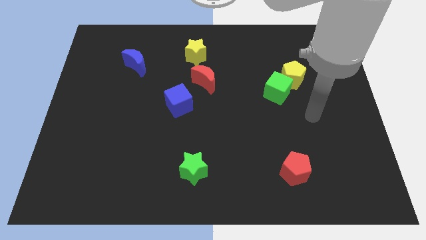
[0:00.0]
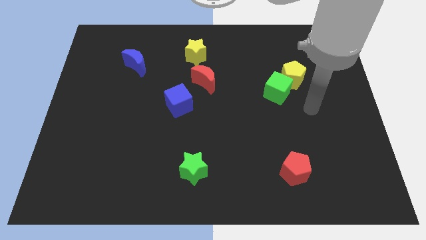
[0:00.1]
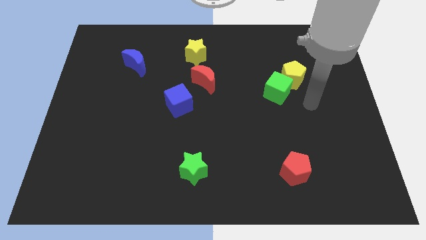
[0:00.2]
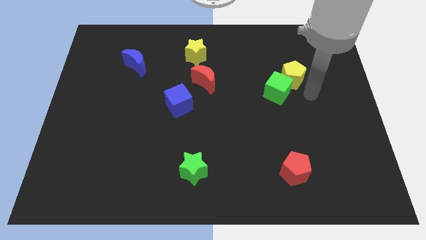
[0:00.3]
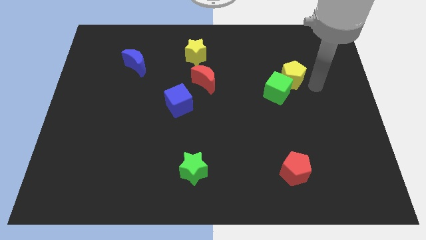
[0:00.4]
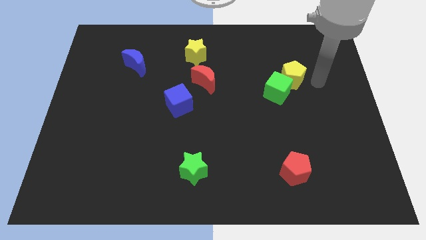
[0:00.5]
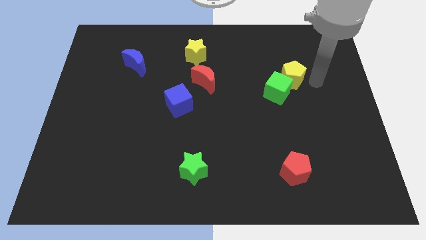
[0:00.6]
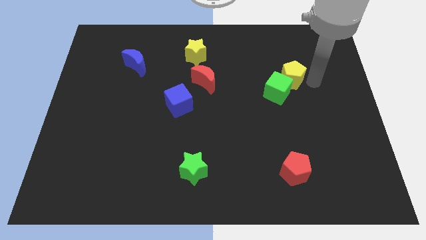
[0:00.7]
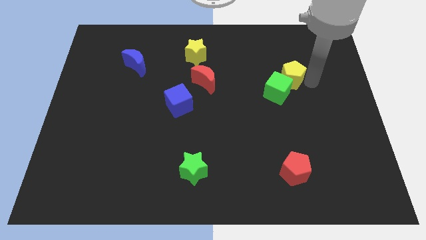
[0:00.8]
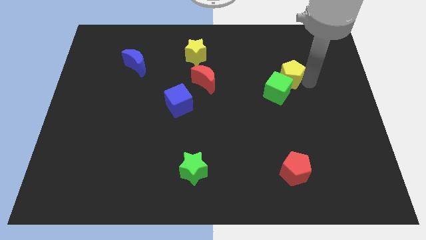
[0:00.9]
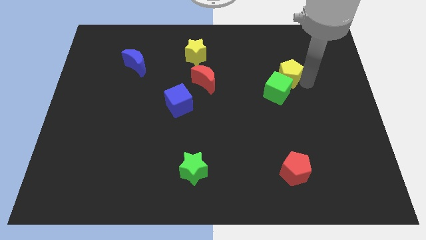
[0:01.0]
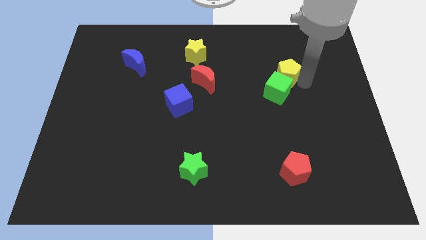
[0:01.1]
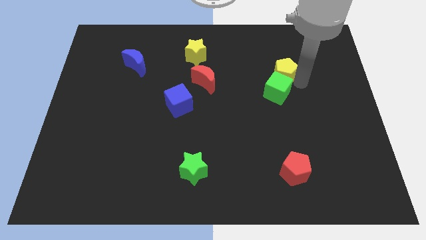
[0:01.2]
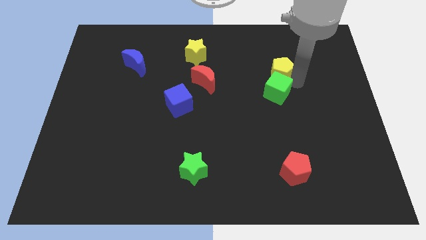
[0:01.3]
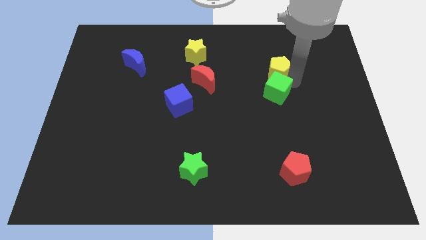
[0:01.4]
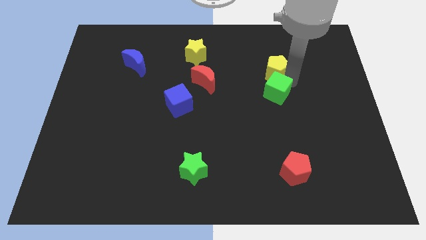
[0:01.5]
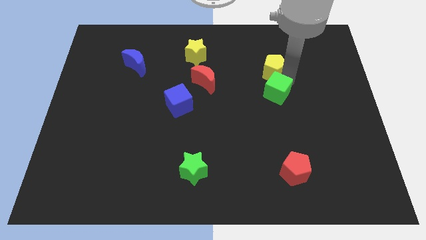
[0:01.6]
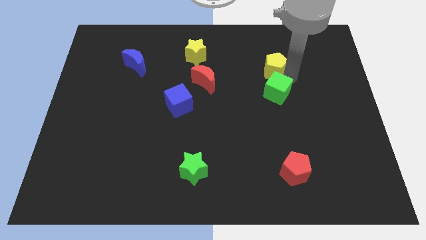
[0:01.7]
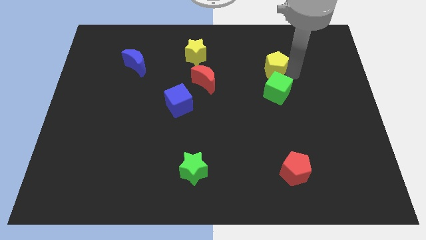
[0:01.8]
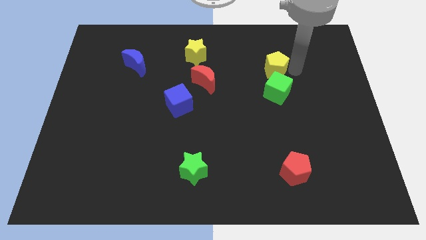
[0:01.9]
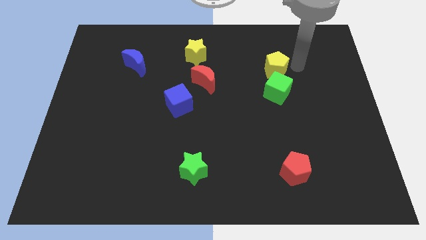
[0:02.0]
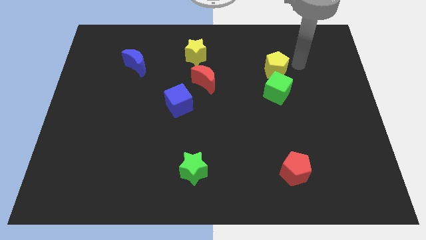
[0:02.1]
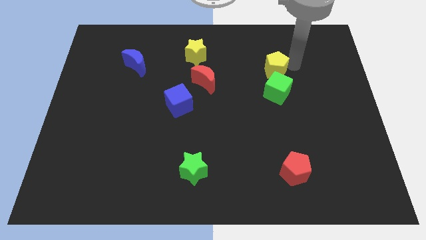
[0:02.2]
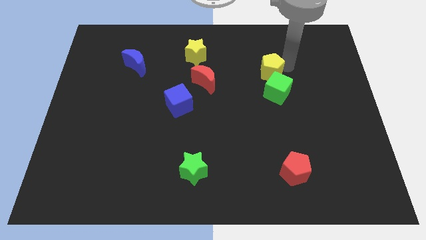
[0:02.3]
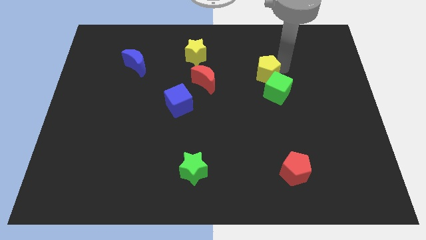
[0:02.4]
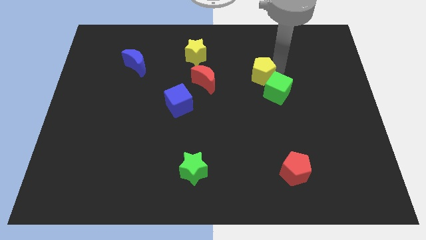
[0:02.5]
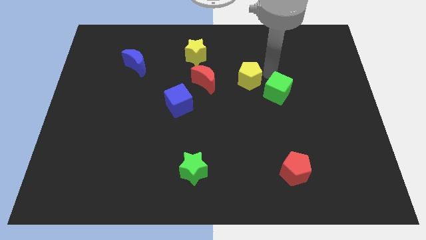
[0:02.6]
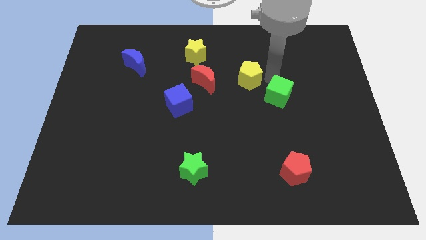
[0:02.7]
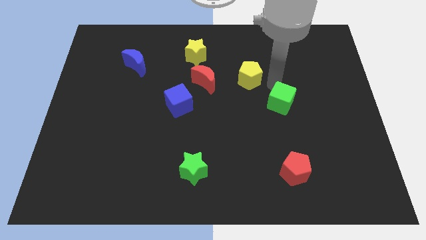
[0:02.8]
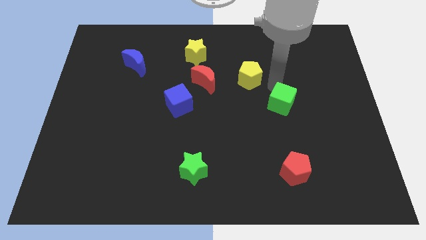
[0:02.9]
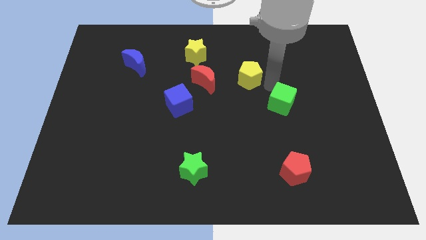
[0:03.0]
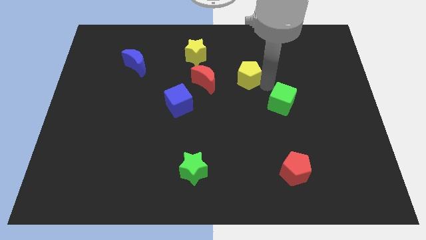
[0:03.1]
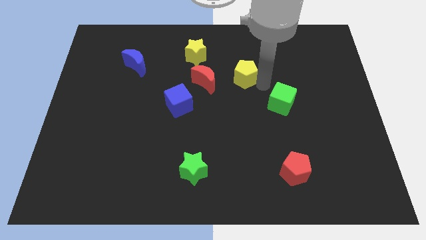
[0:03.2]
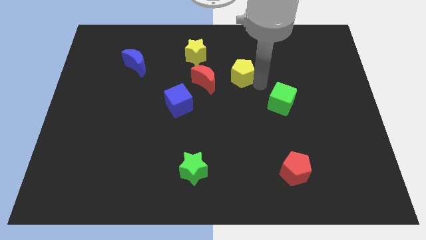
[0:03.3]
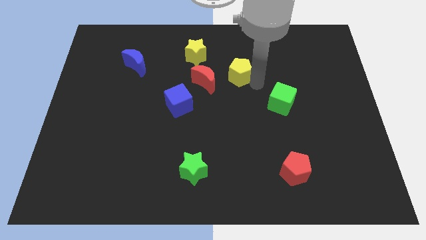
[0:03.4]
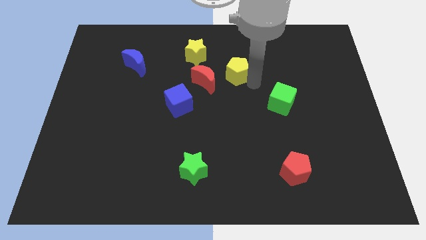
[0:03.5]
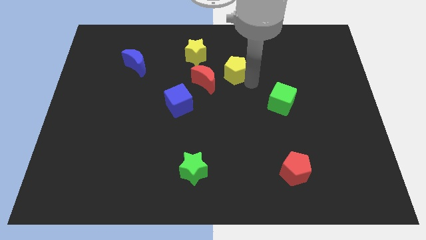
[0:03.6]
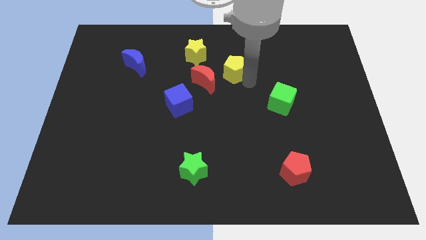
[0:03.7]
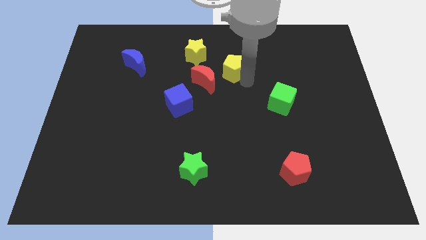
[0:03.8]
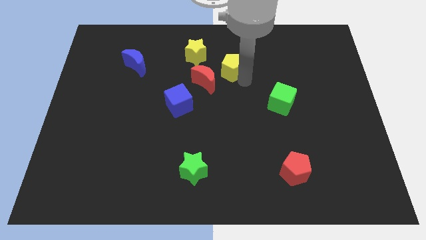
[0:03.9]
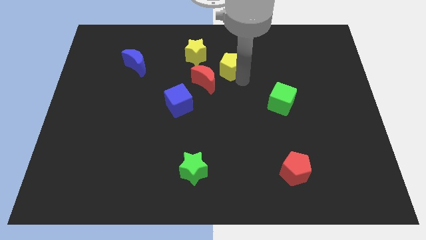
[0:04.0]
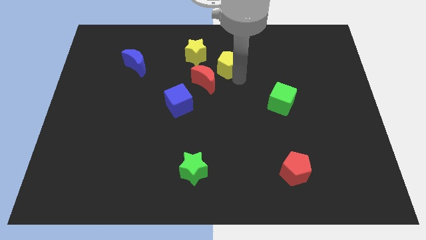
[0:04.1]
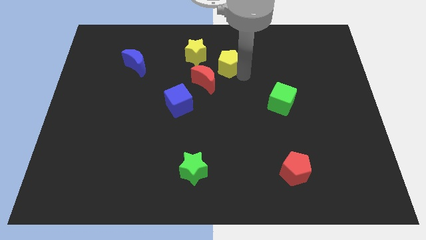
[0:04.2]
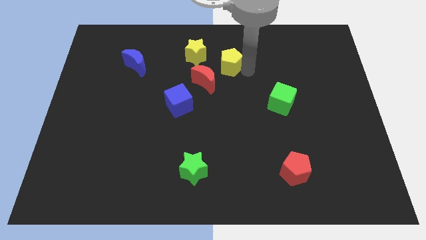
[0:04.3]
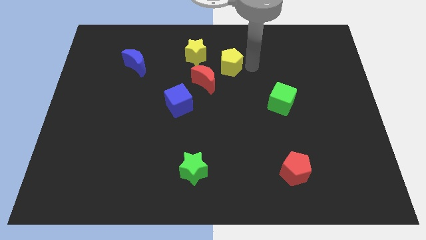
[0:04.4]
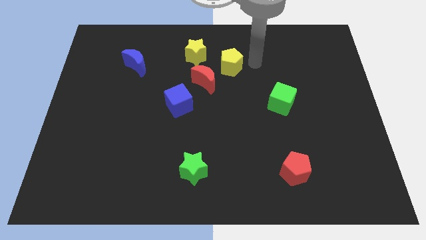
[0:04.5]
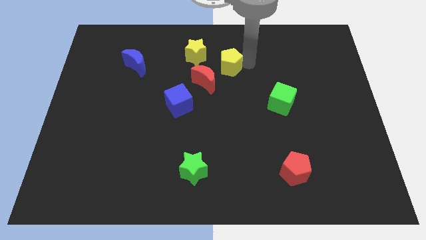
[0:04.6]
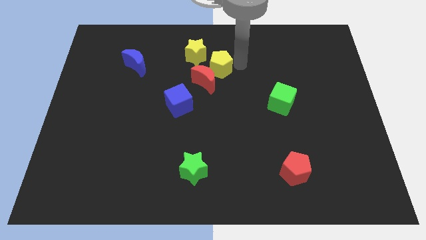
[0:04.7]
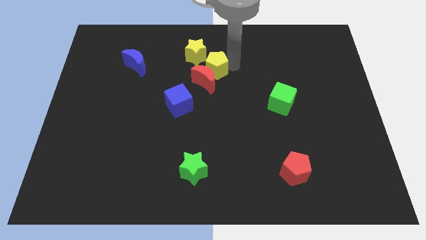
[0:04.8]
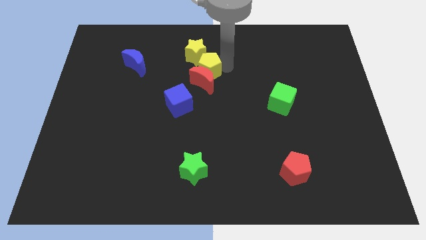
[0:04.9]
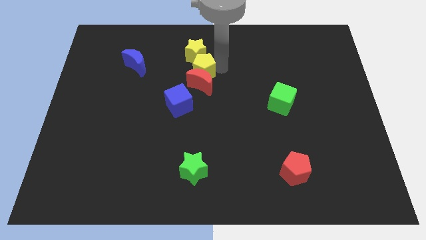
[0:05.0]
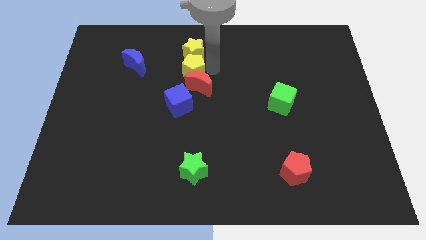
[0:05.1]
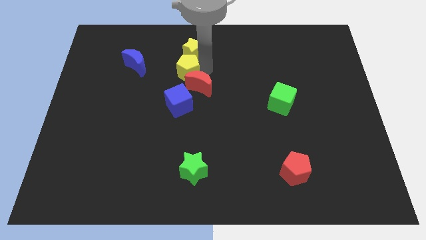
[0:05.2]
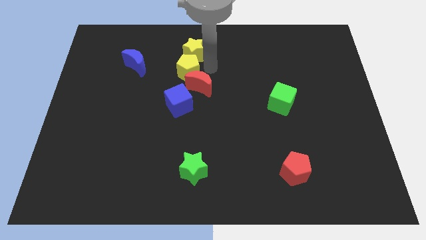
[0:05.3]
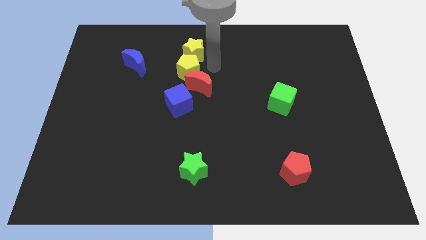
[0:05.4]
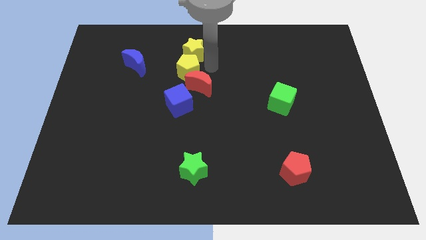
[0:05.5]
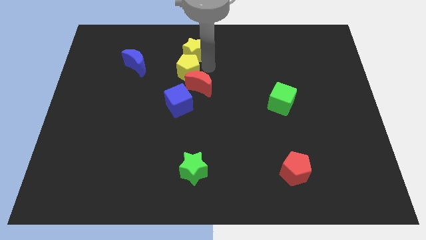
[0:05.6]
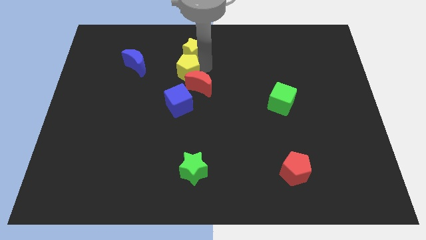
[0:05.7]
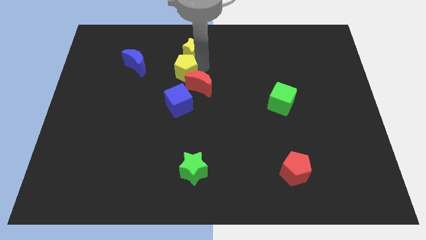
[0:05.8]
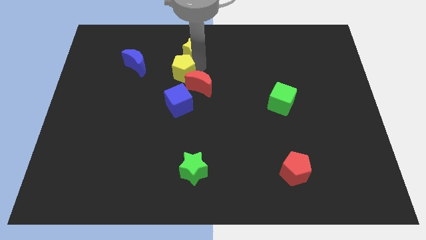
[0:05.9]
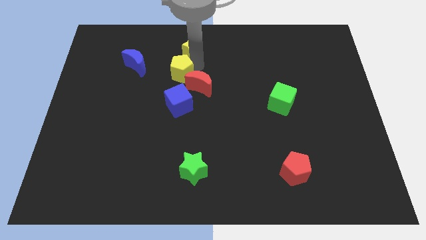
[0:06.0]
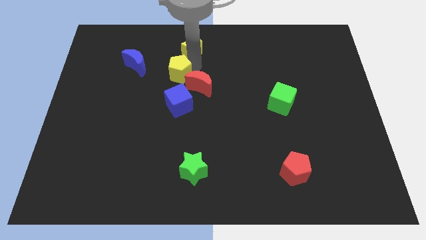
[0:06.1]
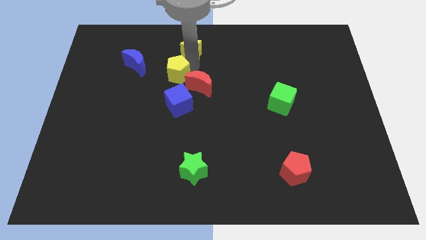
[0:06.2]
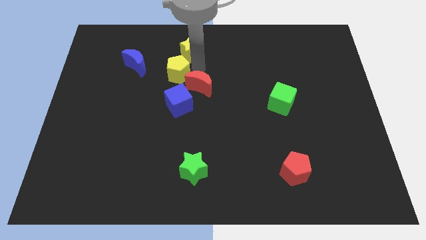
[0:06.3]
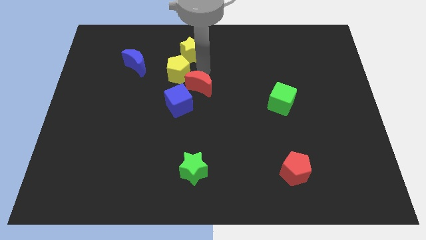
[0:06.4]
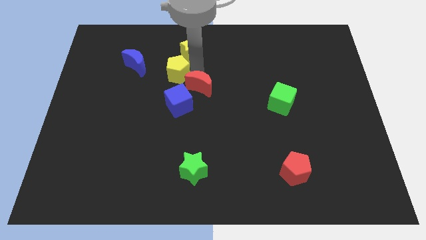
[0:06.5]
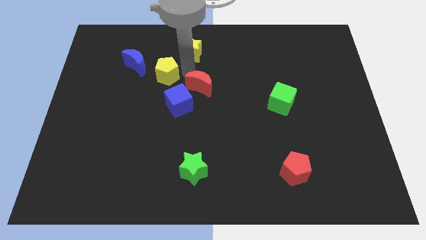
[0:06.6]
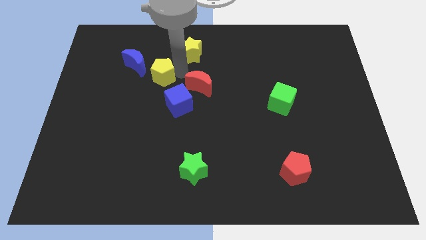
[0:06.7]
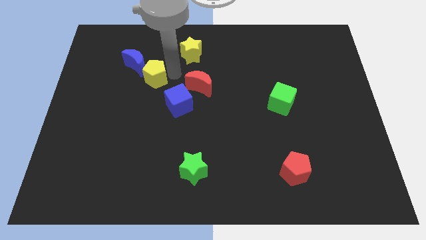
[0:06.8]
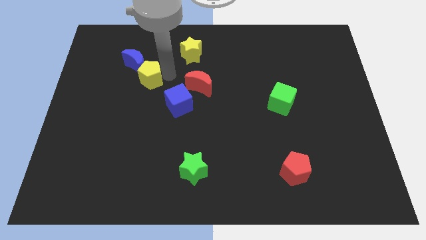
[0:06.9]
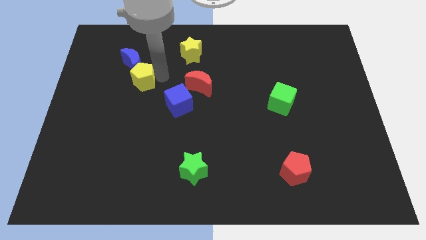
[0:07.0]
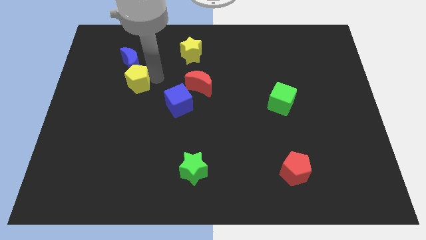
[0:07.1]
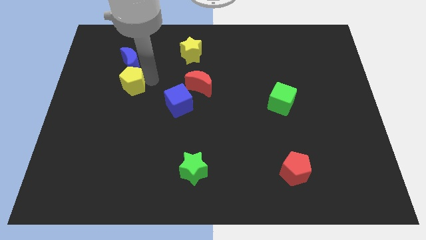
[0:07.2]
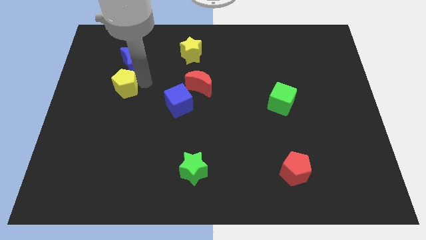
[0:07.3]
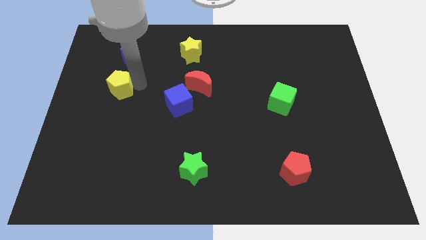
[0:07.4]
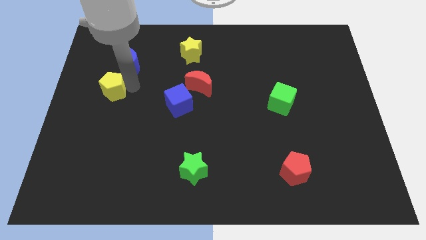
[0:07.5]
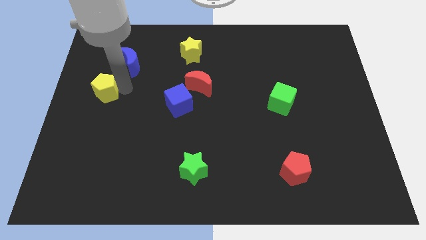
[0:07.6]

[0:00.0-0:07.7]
put the yellow pentagon to the center left

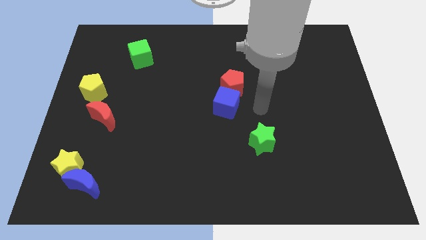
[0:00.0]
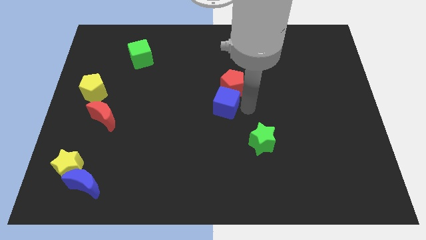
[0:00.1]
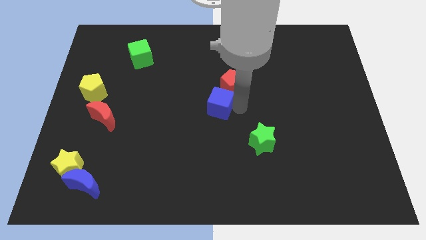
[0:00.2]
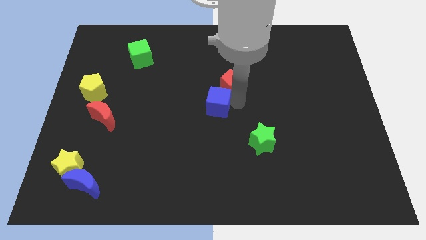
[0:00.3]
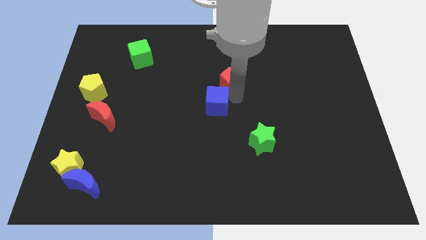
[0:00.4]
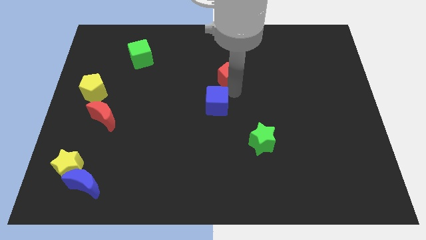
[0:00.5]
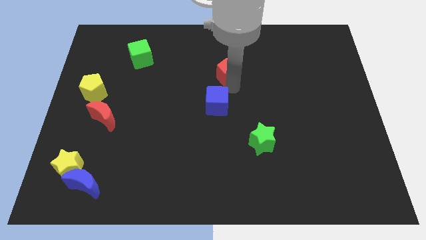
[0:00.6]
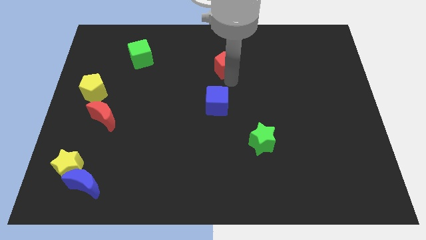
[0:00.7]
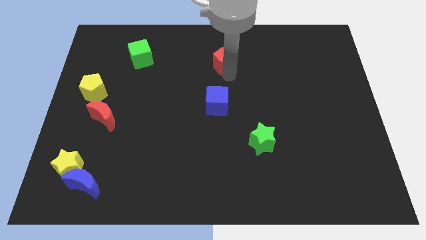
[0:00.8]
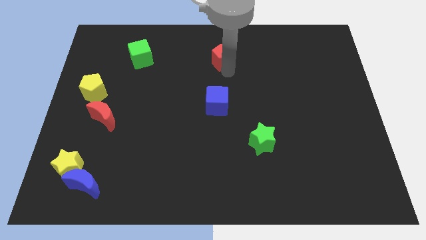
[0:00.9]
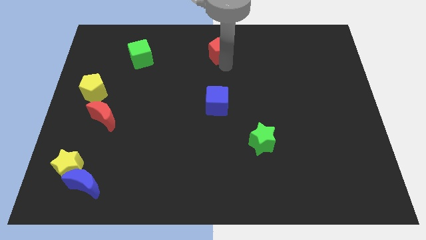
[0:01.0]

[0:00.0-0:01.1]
put the red pentagon to the top
